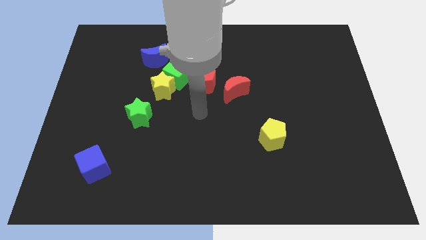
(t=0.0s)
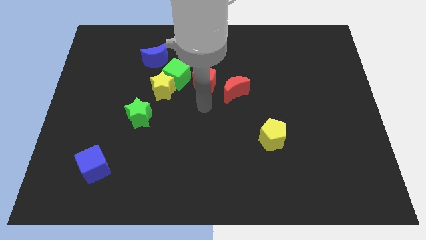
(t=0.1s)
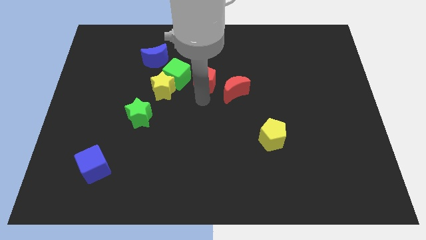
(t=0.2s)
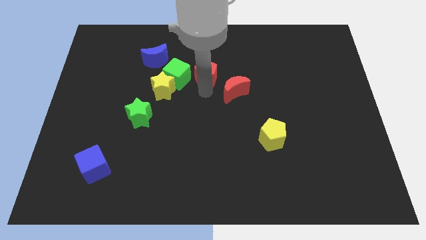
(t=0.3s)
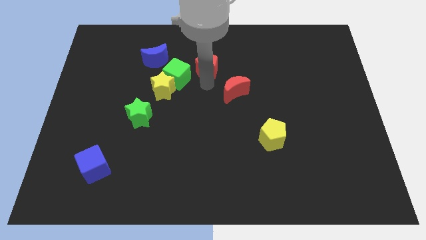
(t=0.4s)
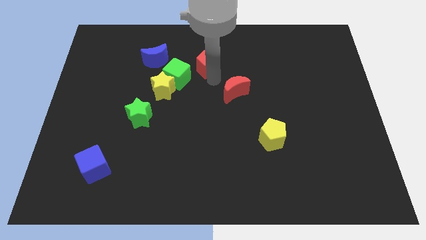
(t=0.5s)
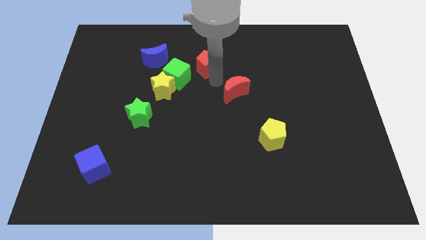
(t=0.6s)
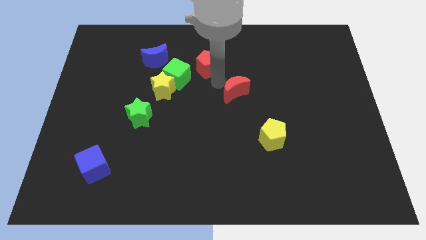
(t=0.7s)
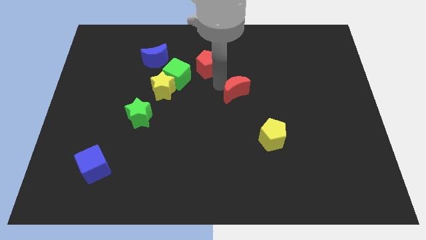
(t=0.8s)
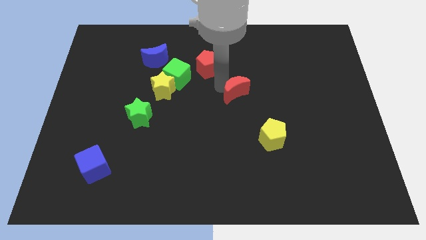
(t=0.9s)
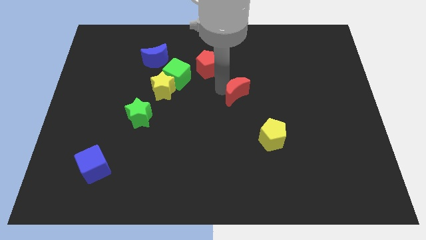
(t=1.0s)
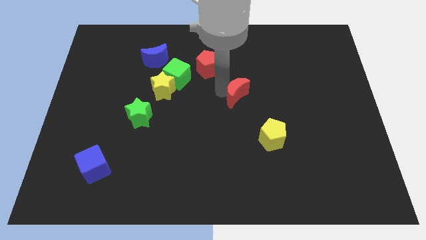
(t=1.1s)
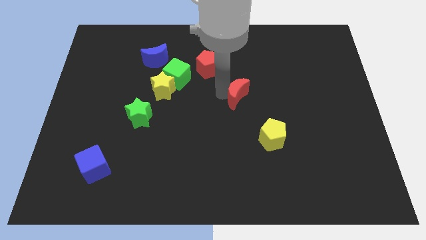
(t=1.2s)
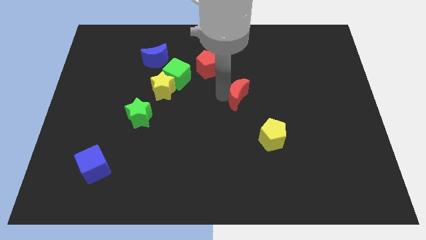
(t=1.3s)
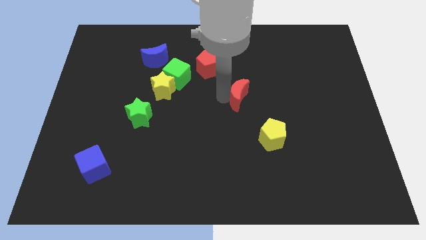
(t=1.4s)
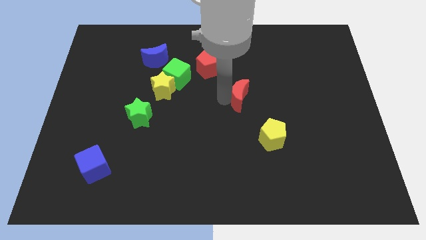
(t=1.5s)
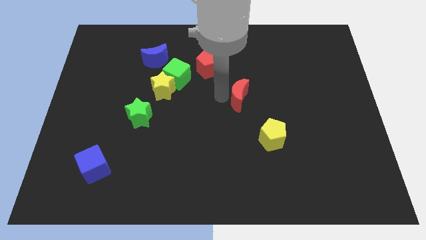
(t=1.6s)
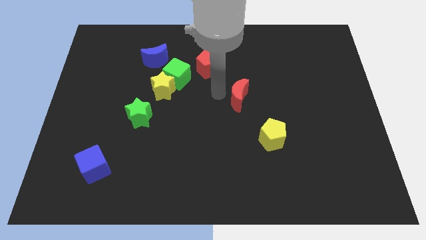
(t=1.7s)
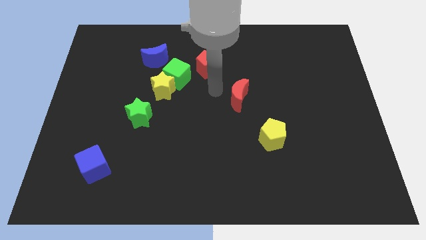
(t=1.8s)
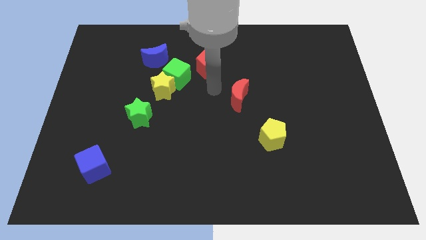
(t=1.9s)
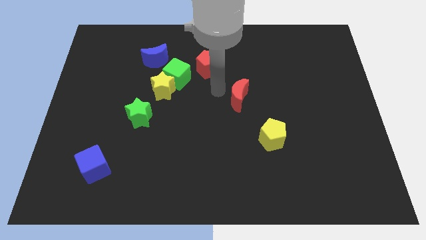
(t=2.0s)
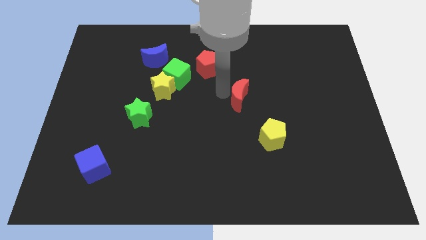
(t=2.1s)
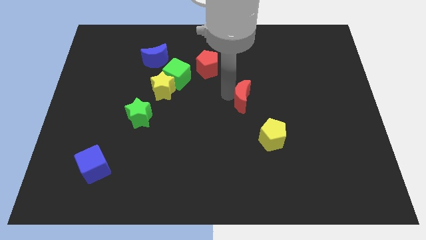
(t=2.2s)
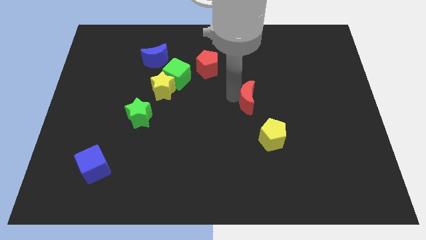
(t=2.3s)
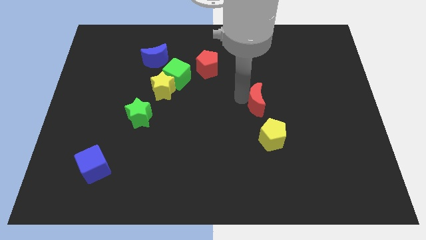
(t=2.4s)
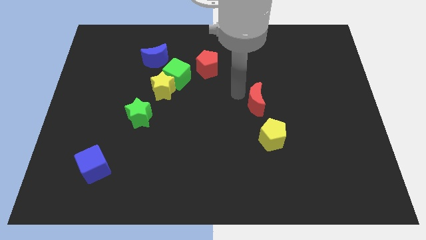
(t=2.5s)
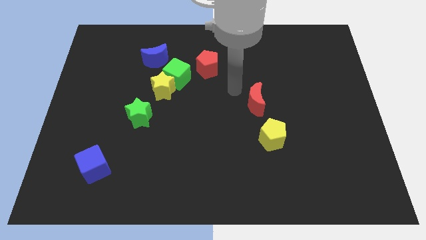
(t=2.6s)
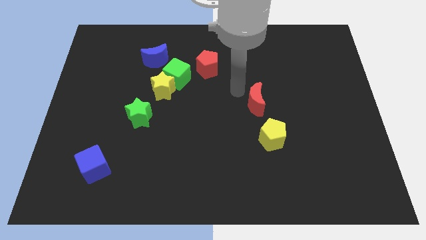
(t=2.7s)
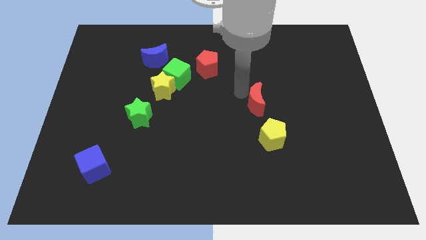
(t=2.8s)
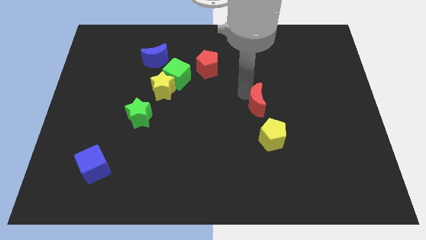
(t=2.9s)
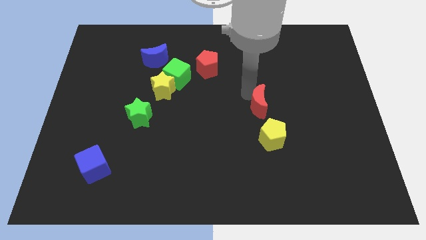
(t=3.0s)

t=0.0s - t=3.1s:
push the red moon a little bit downwards and then to the right

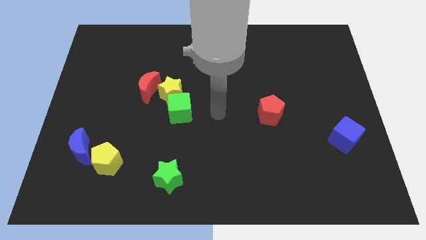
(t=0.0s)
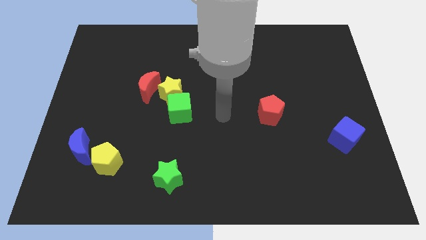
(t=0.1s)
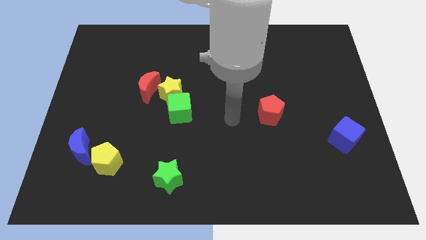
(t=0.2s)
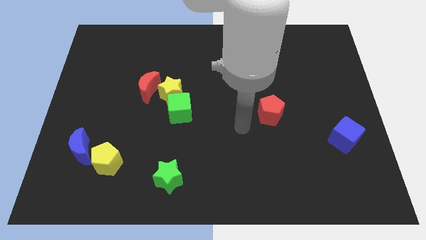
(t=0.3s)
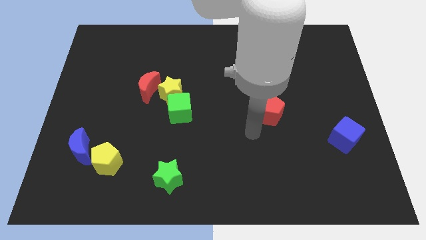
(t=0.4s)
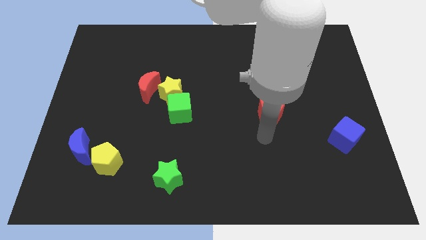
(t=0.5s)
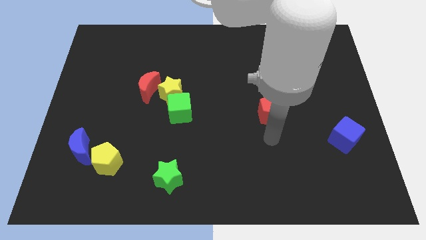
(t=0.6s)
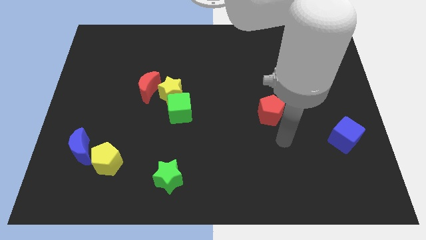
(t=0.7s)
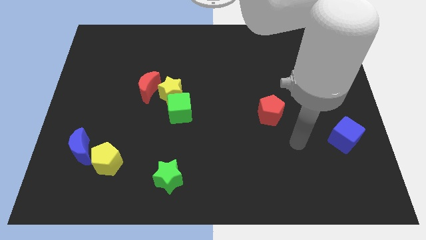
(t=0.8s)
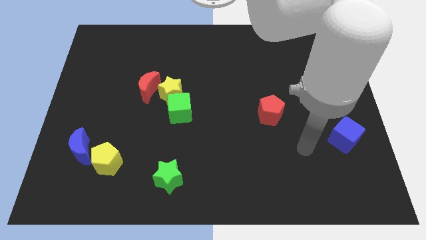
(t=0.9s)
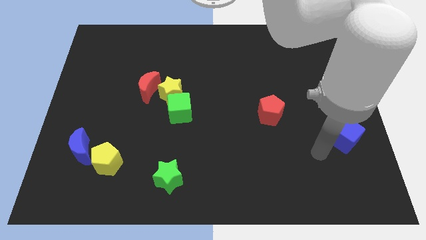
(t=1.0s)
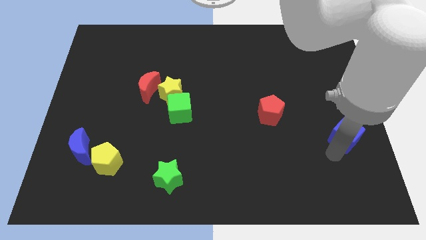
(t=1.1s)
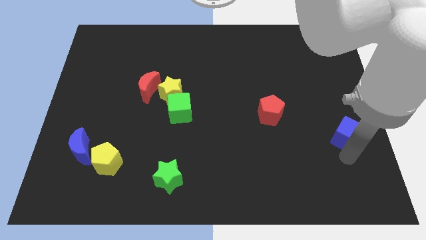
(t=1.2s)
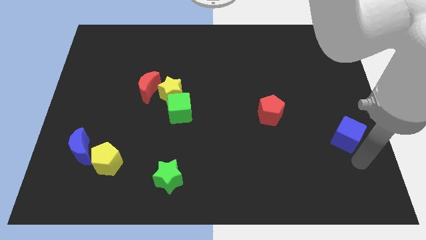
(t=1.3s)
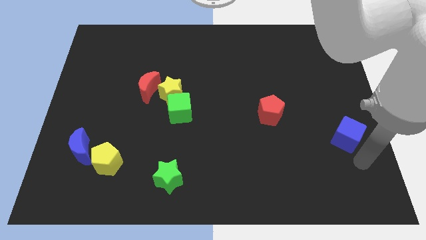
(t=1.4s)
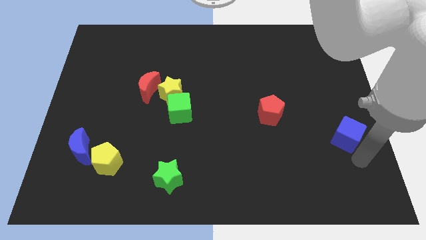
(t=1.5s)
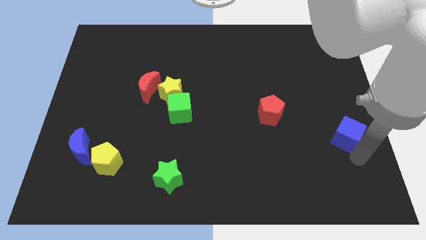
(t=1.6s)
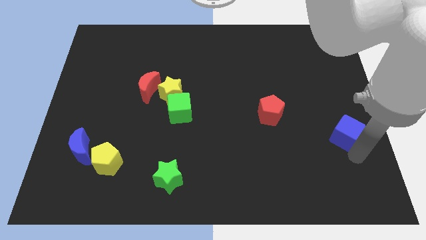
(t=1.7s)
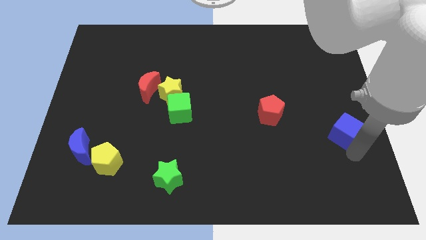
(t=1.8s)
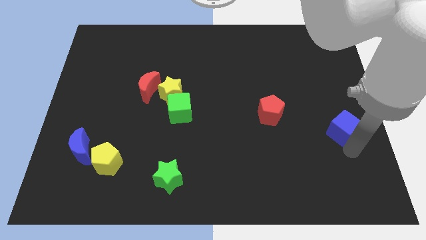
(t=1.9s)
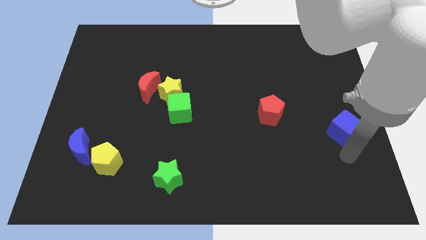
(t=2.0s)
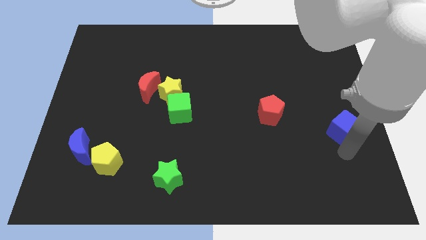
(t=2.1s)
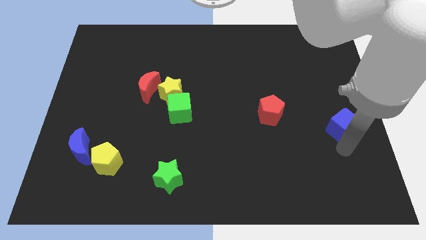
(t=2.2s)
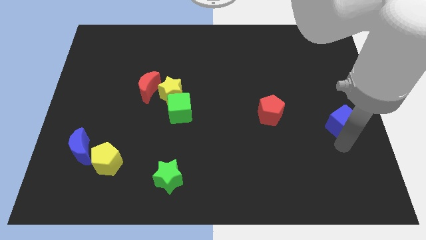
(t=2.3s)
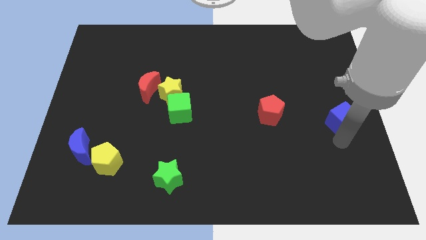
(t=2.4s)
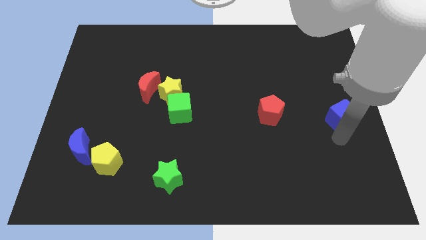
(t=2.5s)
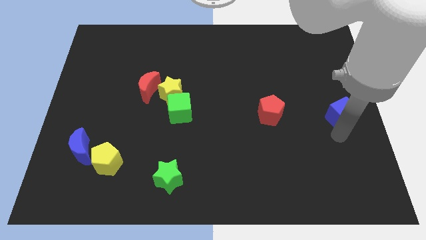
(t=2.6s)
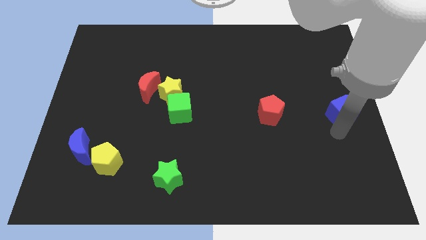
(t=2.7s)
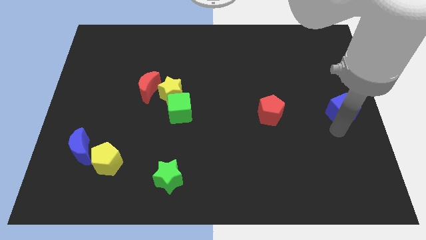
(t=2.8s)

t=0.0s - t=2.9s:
move the blue cube a little upwards

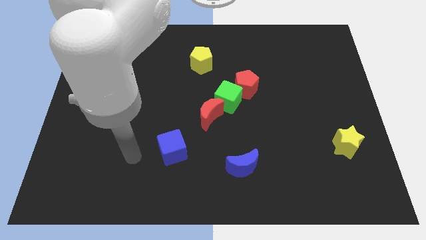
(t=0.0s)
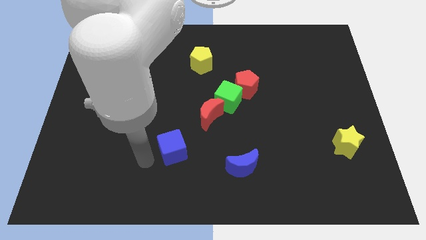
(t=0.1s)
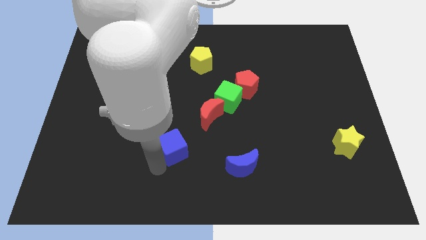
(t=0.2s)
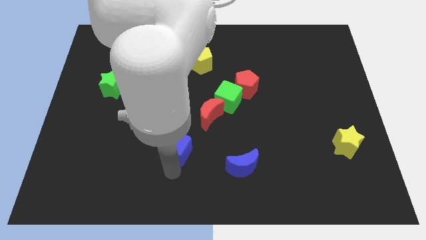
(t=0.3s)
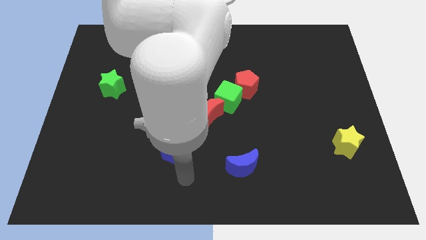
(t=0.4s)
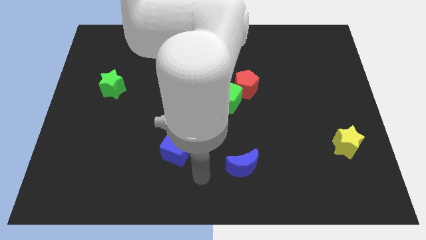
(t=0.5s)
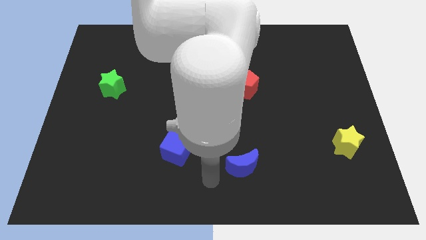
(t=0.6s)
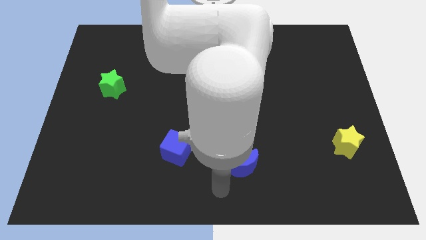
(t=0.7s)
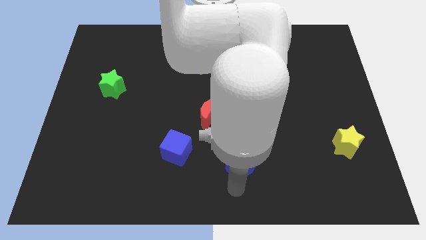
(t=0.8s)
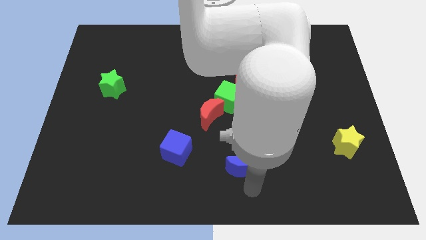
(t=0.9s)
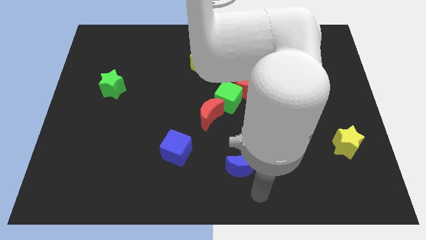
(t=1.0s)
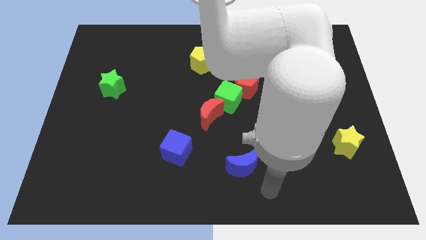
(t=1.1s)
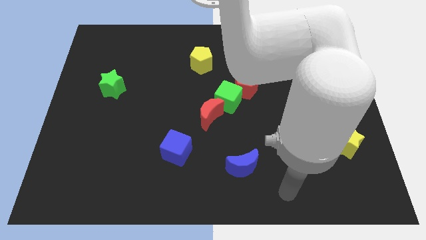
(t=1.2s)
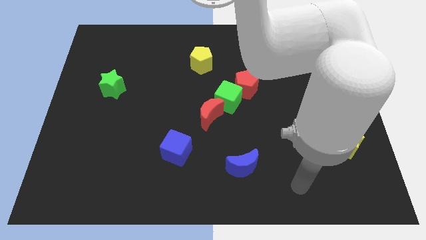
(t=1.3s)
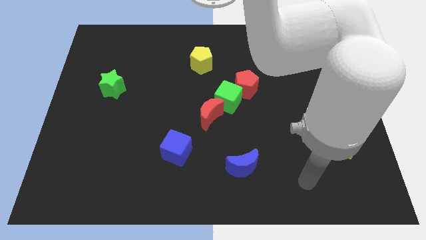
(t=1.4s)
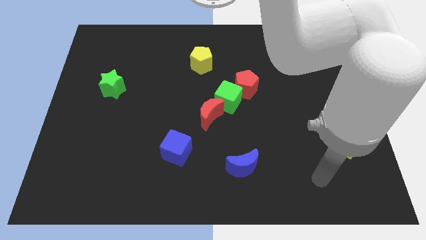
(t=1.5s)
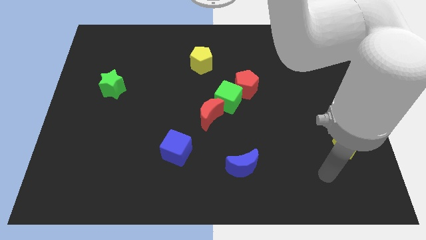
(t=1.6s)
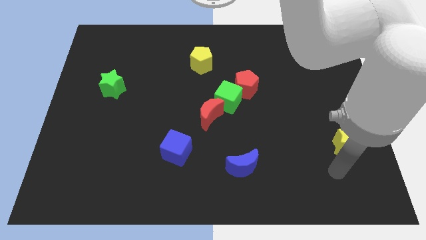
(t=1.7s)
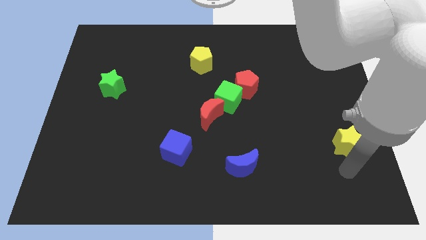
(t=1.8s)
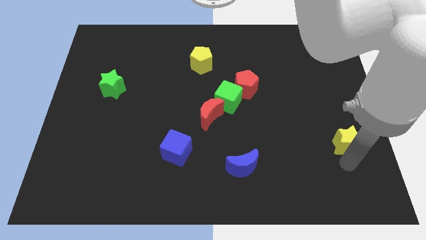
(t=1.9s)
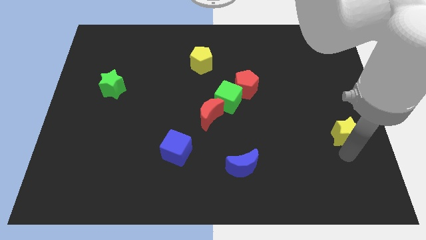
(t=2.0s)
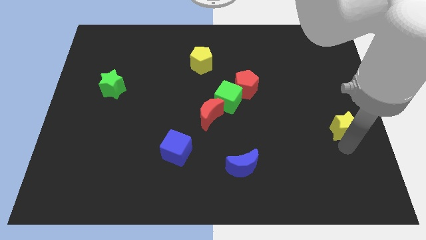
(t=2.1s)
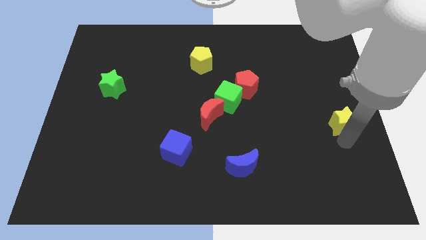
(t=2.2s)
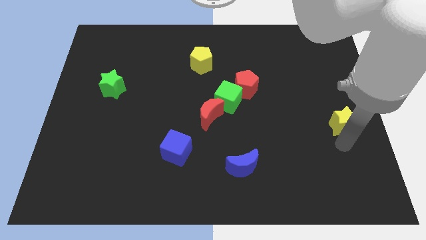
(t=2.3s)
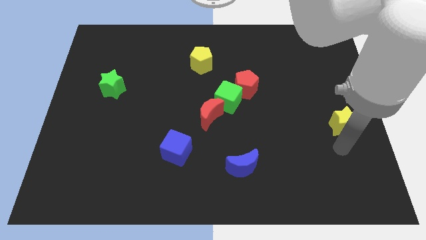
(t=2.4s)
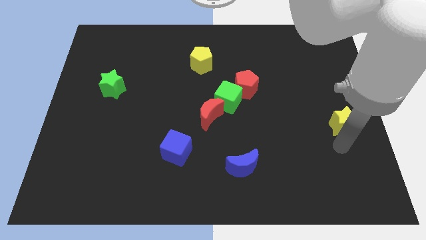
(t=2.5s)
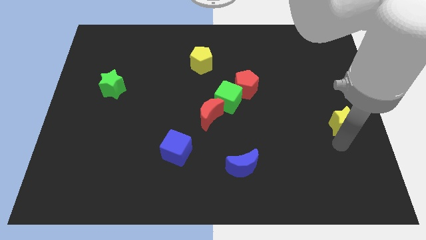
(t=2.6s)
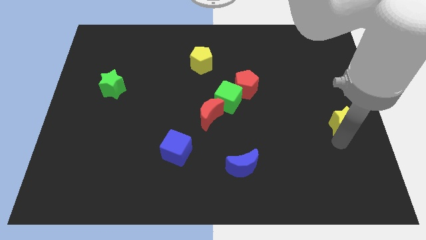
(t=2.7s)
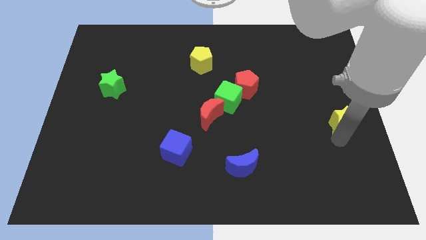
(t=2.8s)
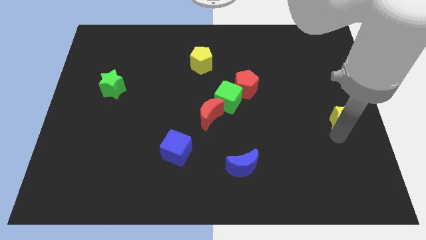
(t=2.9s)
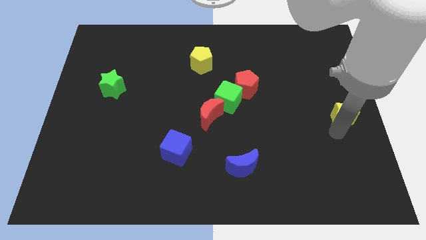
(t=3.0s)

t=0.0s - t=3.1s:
move the yellow star up a little
